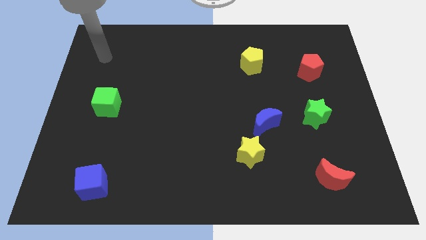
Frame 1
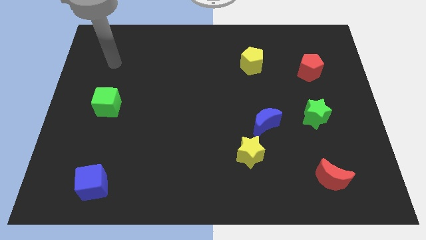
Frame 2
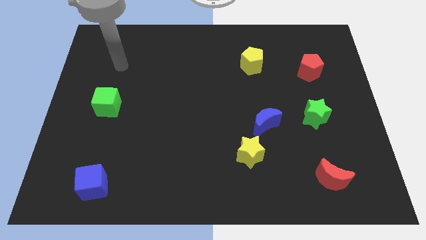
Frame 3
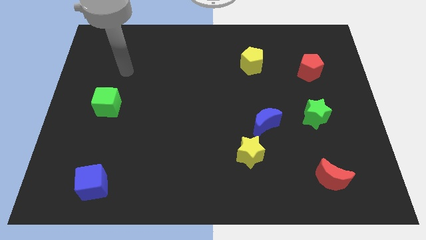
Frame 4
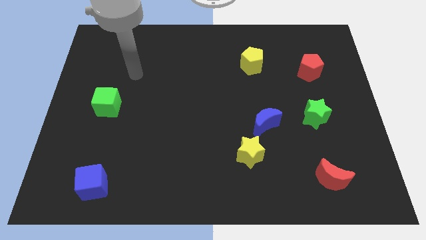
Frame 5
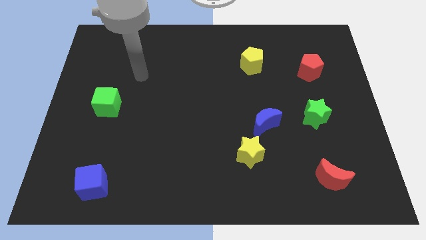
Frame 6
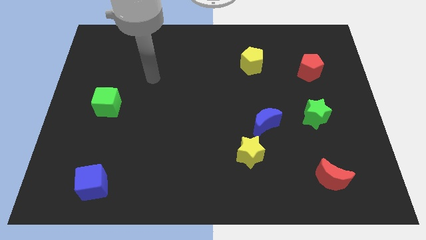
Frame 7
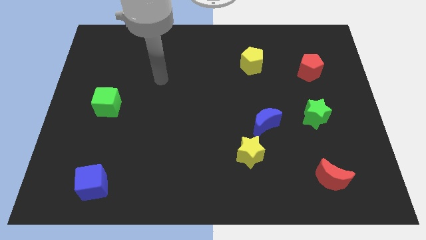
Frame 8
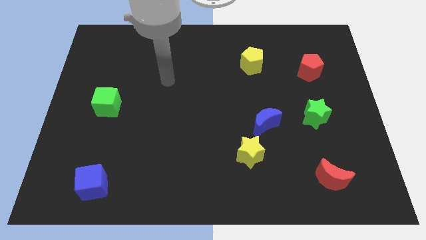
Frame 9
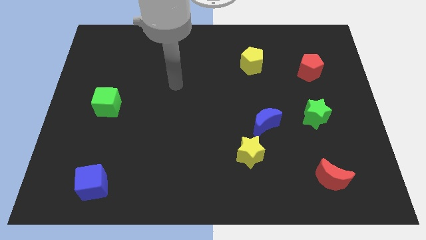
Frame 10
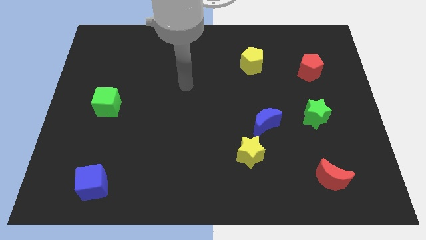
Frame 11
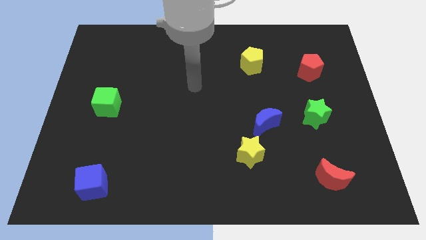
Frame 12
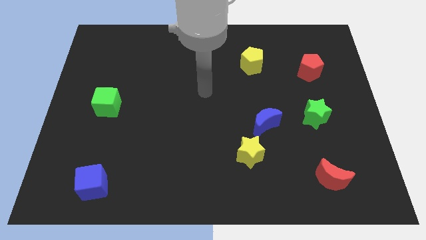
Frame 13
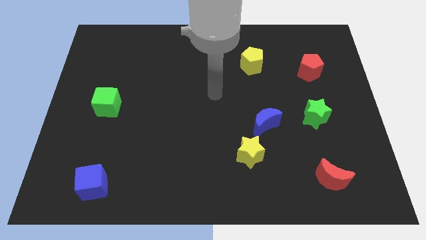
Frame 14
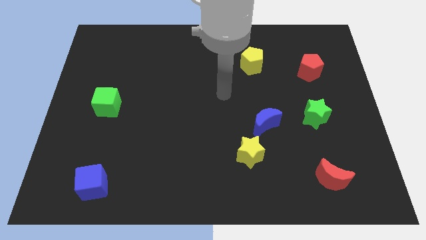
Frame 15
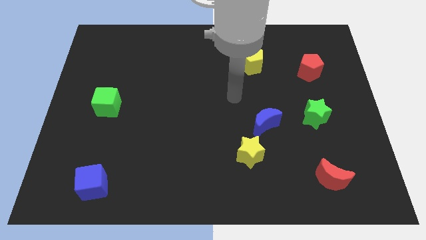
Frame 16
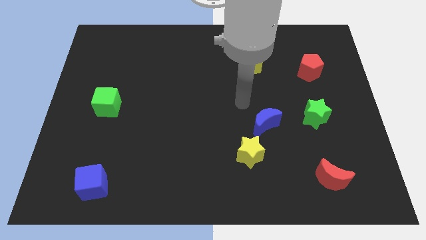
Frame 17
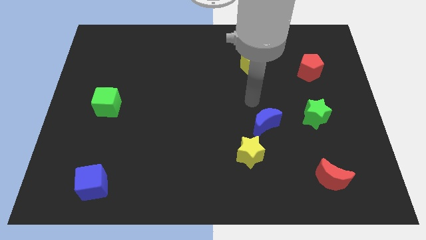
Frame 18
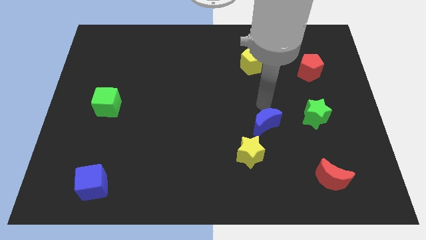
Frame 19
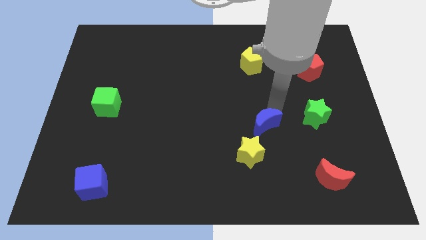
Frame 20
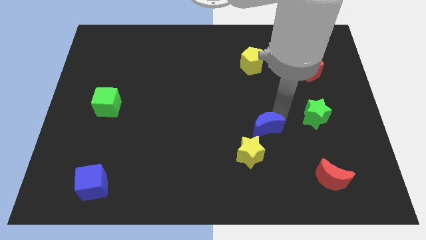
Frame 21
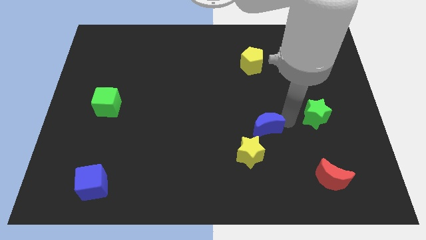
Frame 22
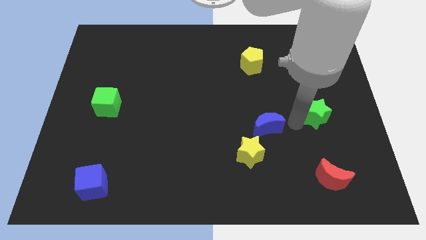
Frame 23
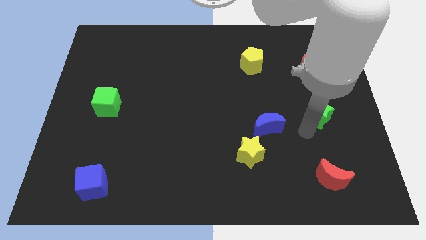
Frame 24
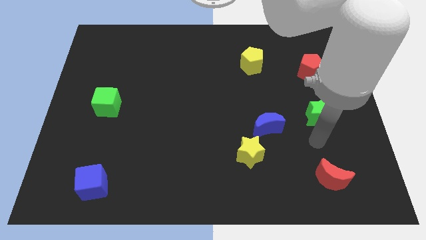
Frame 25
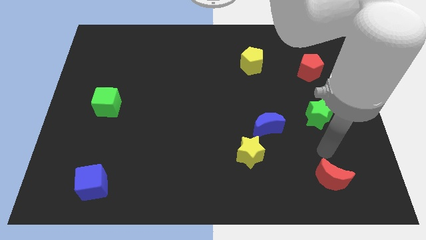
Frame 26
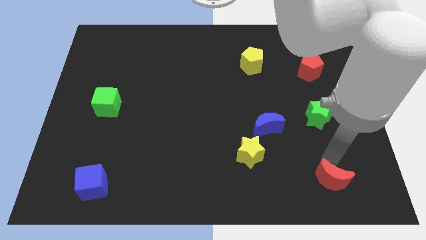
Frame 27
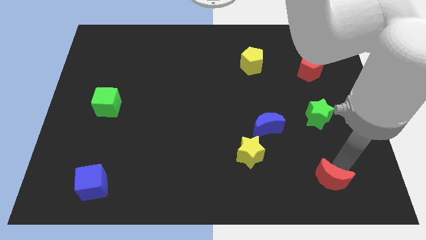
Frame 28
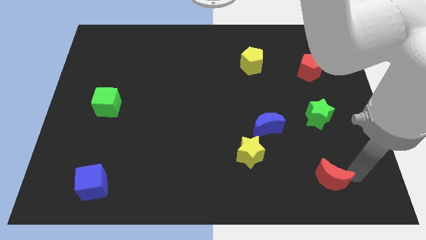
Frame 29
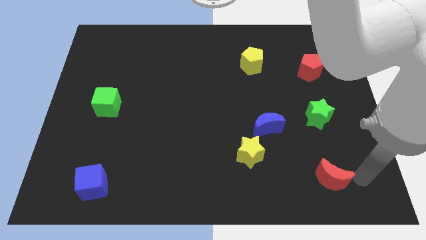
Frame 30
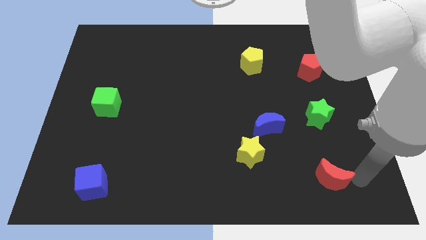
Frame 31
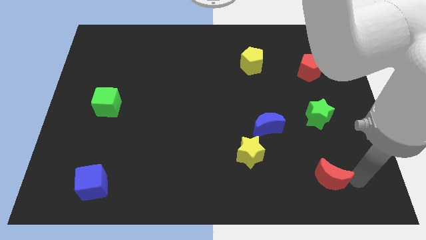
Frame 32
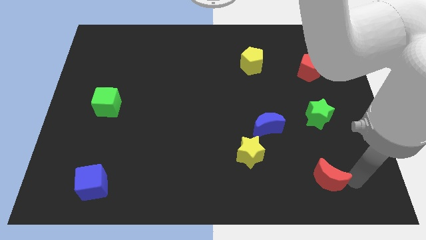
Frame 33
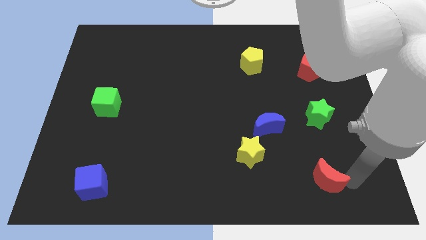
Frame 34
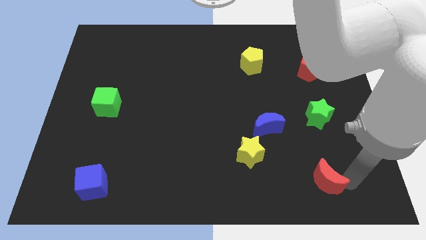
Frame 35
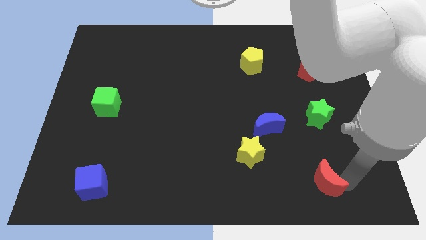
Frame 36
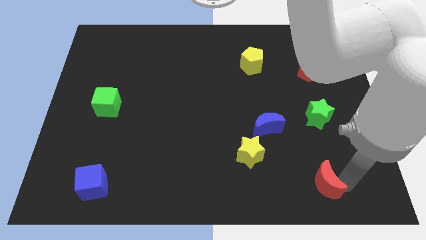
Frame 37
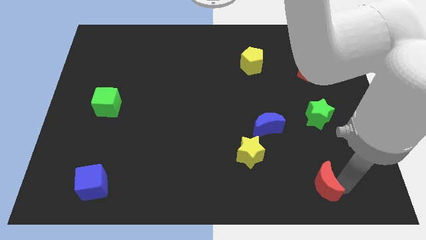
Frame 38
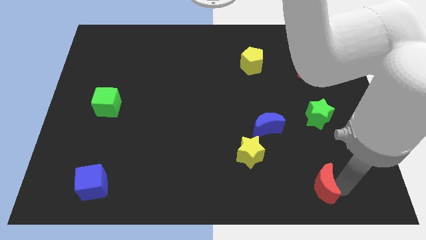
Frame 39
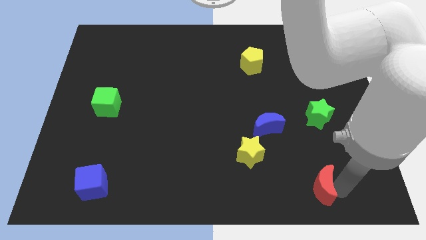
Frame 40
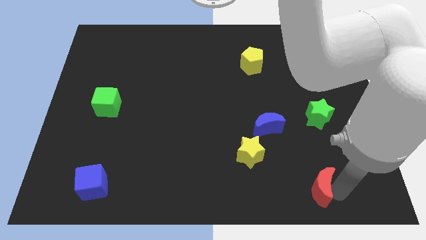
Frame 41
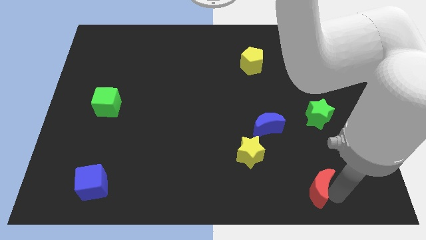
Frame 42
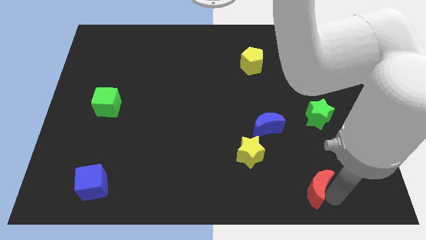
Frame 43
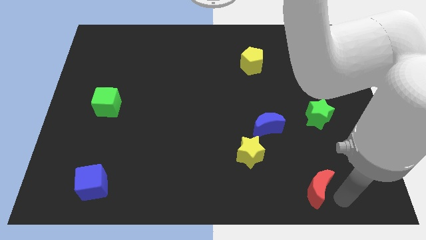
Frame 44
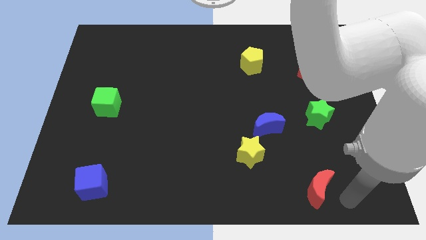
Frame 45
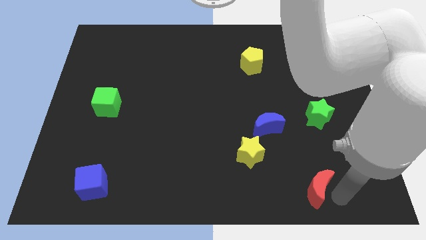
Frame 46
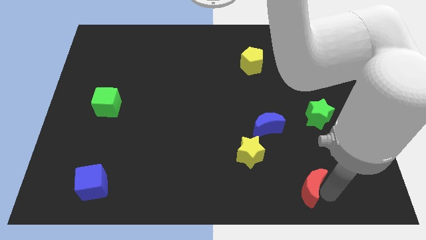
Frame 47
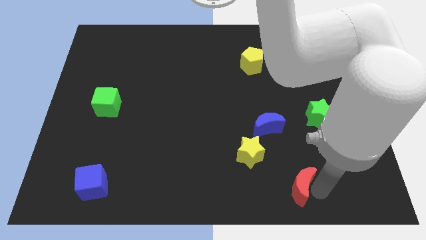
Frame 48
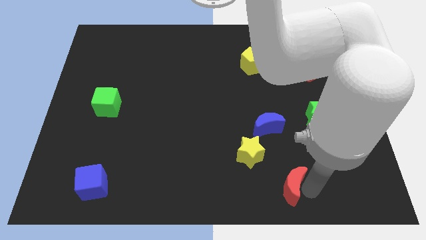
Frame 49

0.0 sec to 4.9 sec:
push the red moon to the left a little bit

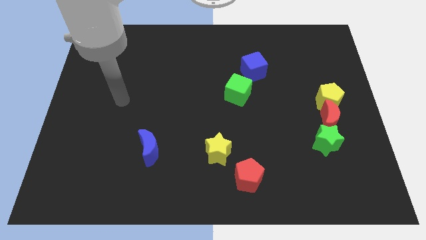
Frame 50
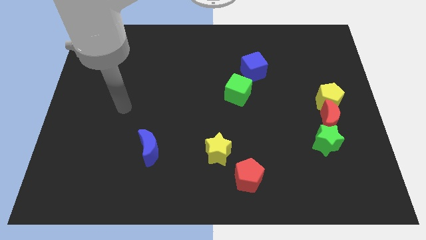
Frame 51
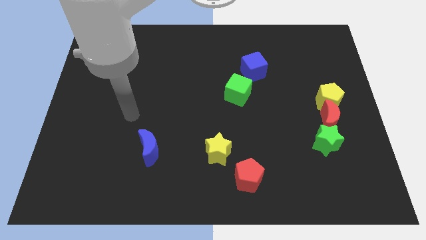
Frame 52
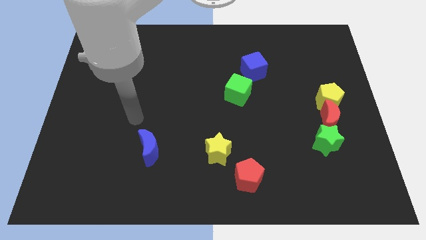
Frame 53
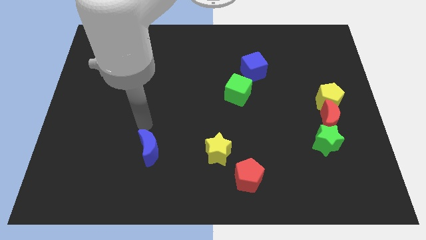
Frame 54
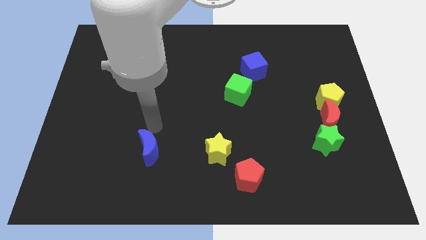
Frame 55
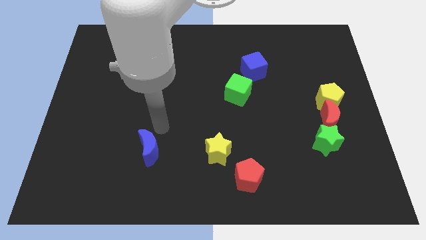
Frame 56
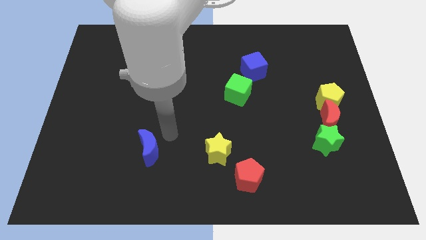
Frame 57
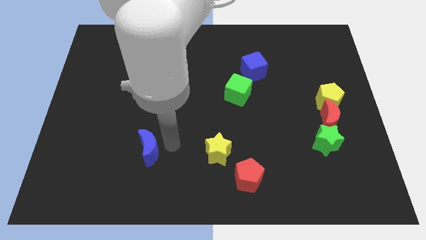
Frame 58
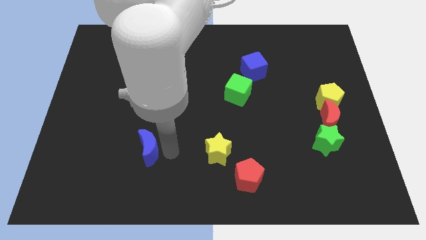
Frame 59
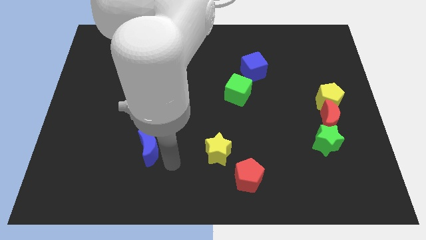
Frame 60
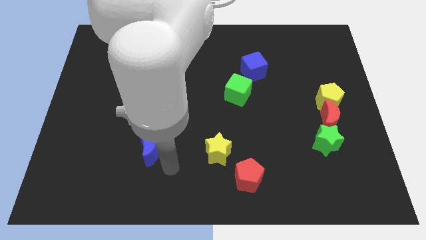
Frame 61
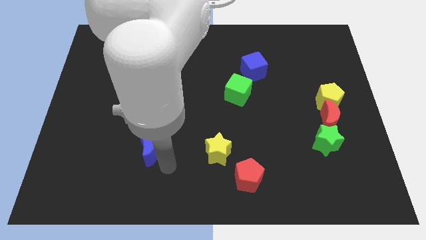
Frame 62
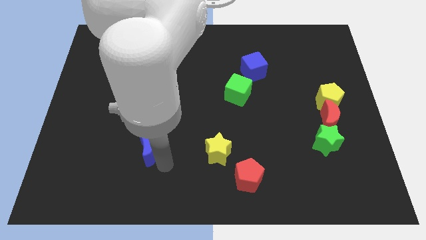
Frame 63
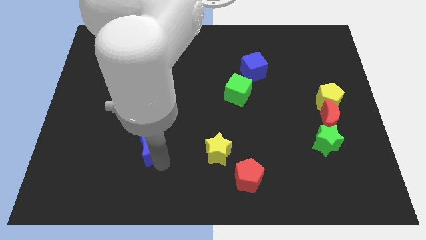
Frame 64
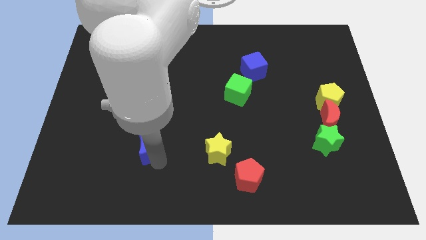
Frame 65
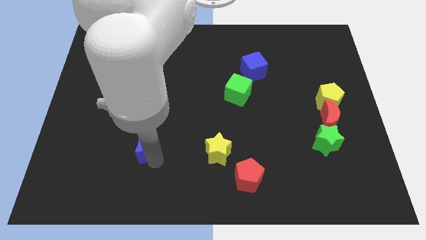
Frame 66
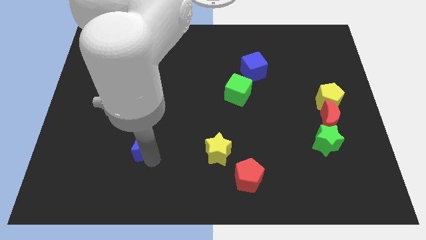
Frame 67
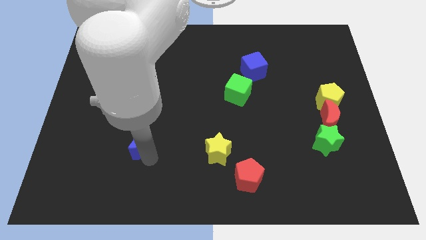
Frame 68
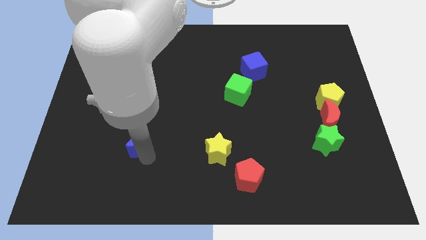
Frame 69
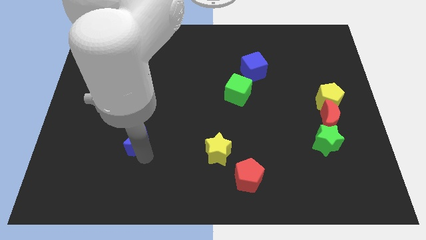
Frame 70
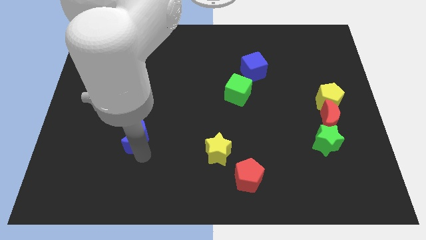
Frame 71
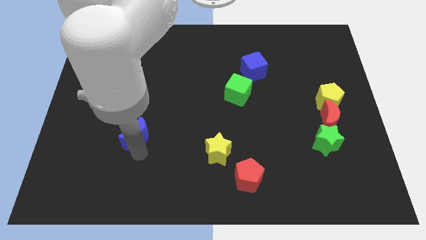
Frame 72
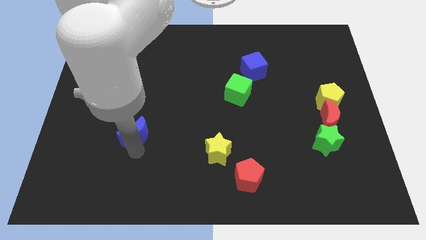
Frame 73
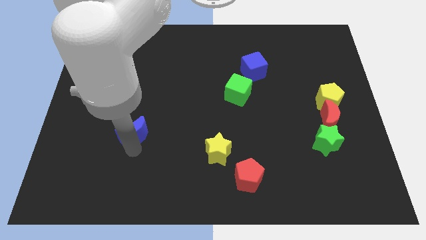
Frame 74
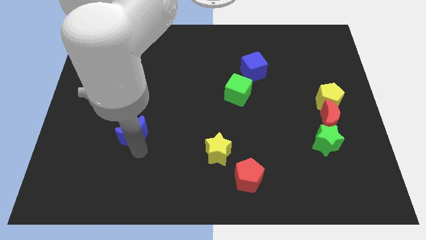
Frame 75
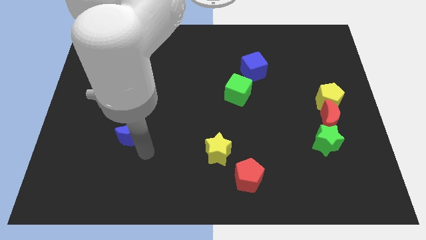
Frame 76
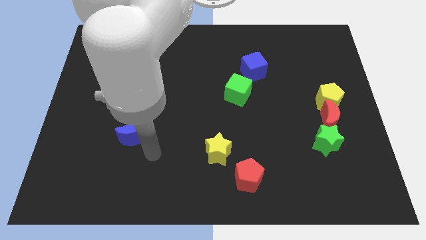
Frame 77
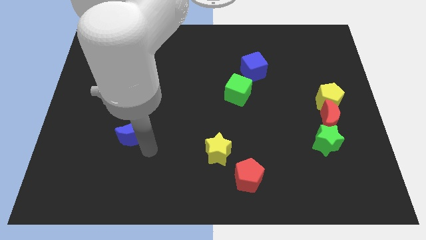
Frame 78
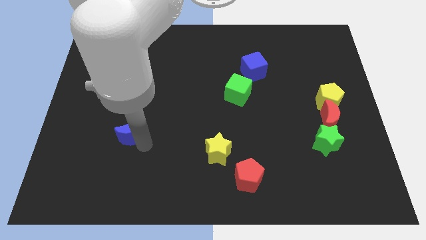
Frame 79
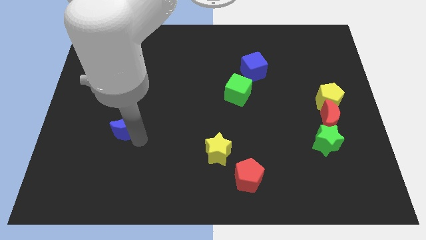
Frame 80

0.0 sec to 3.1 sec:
slightly move the blue moon upwards and then left
